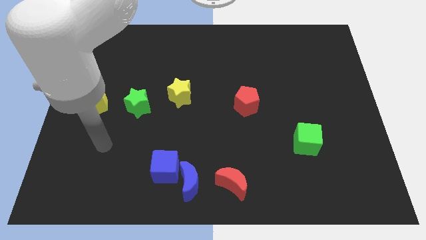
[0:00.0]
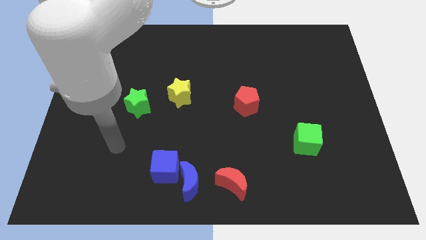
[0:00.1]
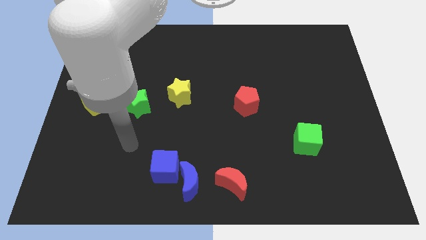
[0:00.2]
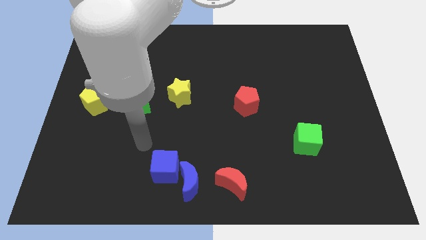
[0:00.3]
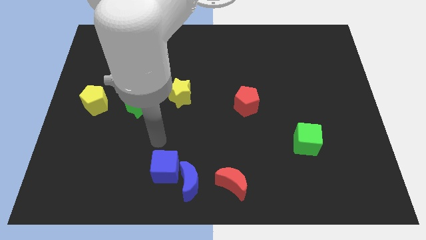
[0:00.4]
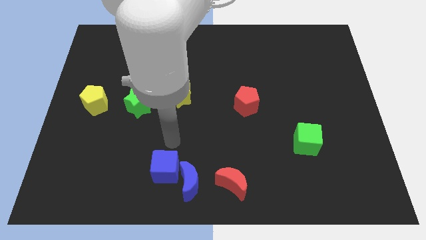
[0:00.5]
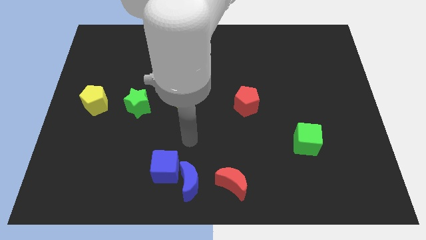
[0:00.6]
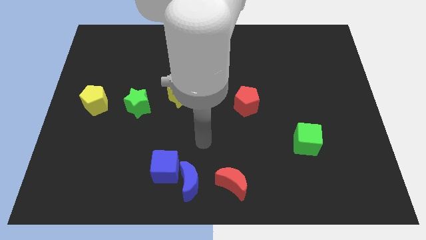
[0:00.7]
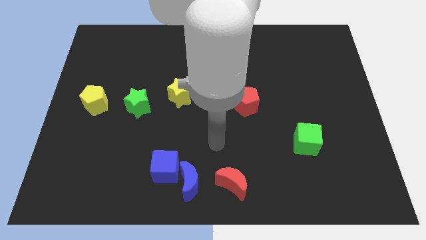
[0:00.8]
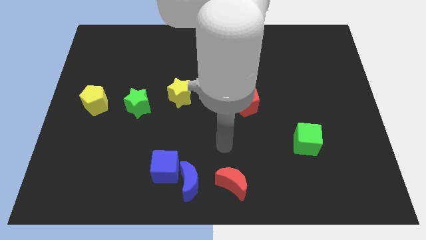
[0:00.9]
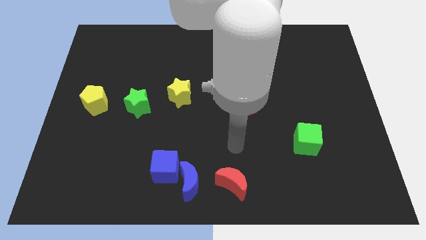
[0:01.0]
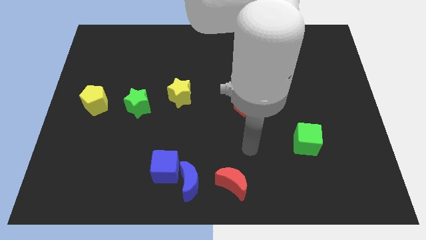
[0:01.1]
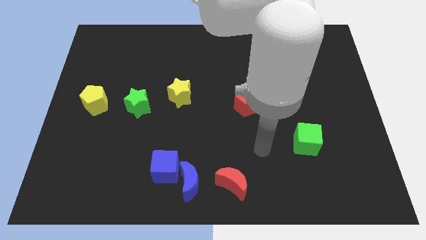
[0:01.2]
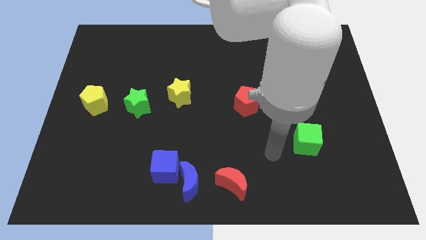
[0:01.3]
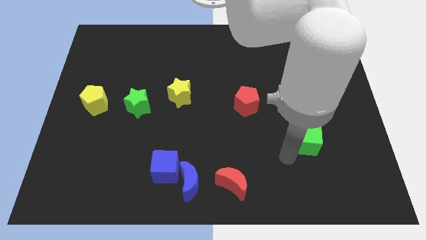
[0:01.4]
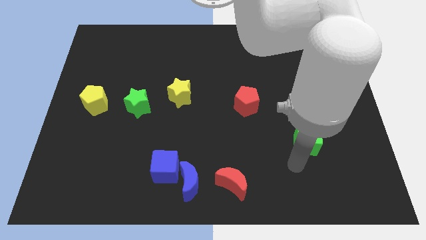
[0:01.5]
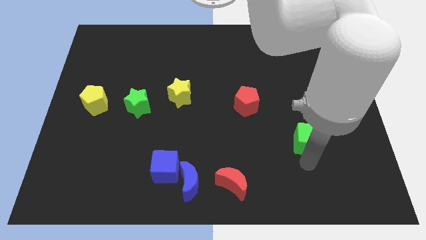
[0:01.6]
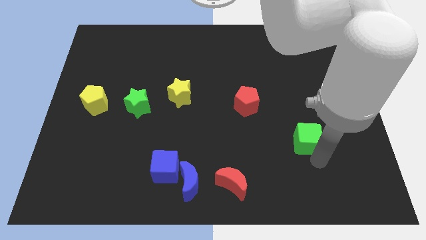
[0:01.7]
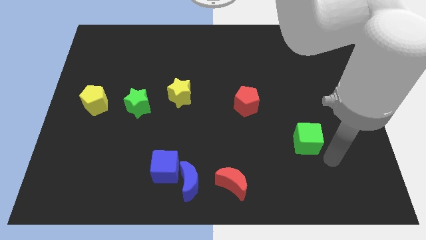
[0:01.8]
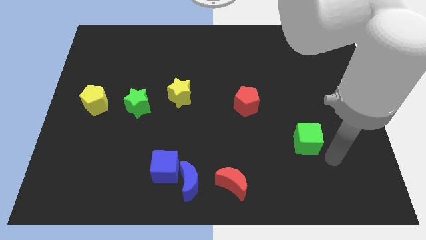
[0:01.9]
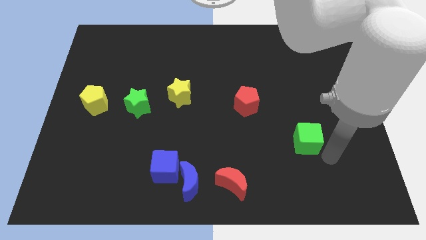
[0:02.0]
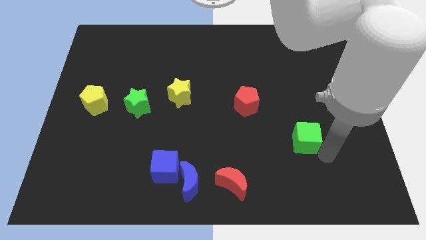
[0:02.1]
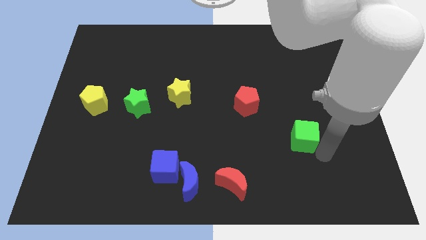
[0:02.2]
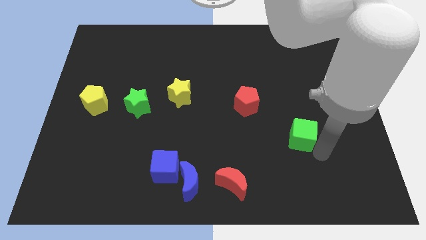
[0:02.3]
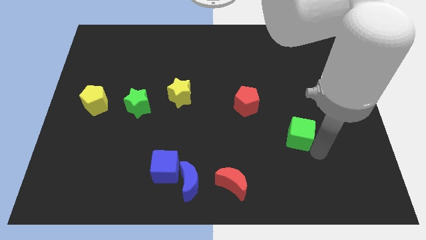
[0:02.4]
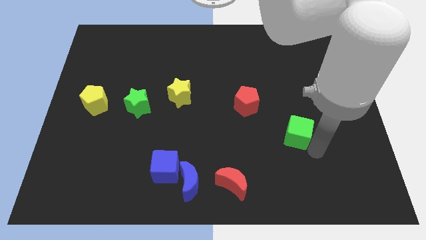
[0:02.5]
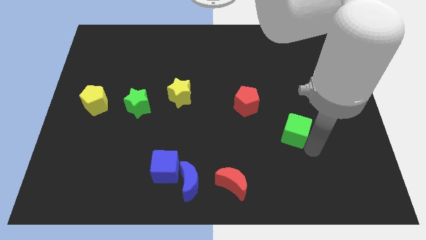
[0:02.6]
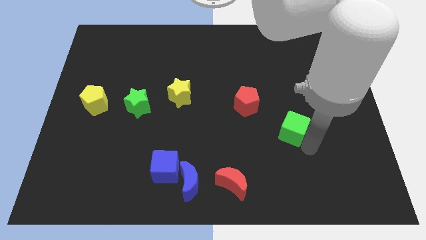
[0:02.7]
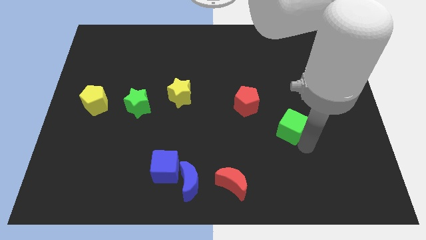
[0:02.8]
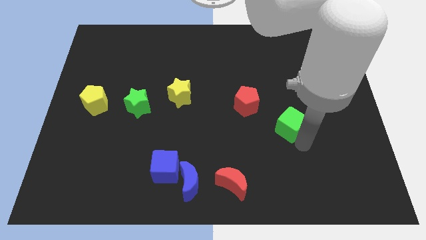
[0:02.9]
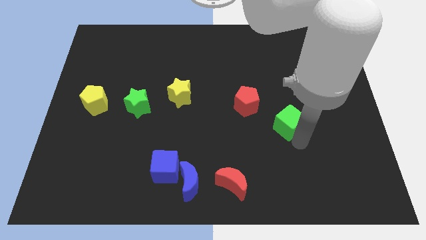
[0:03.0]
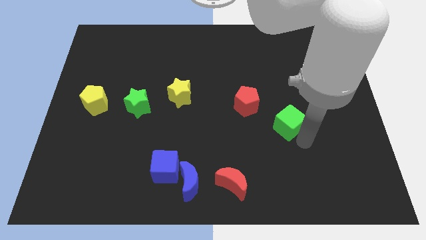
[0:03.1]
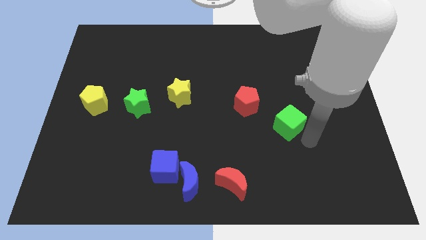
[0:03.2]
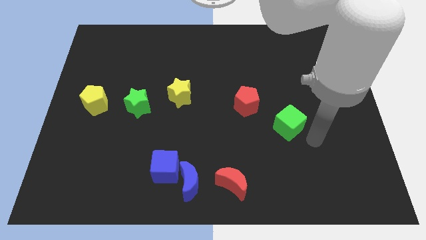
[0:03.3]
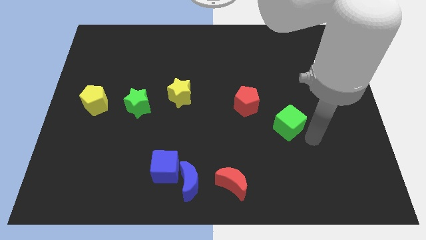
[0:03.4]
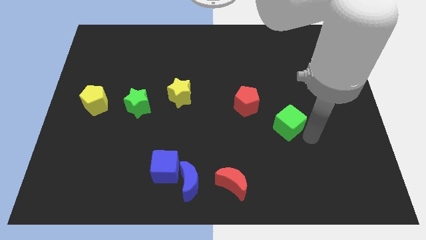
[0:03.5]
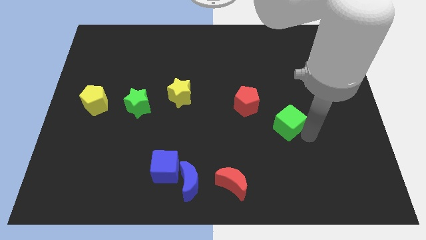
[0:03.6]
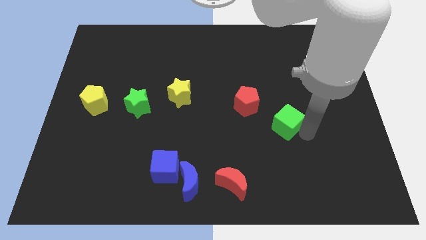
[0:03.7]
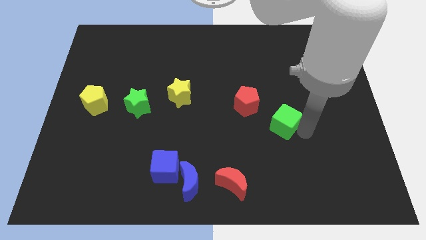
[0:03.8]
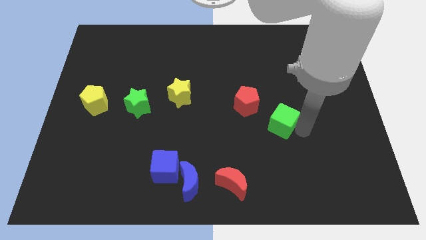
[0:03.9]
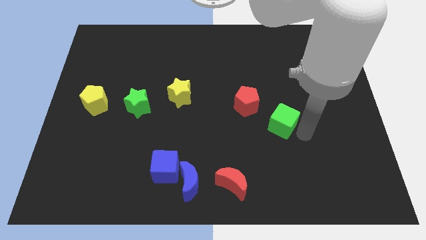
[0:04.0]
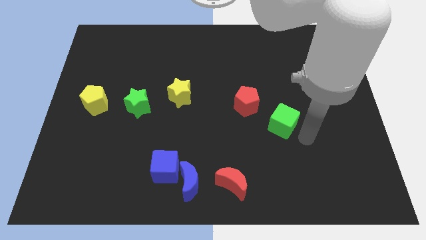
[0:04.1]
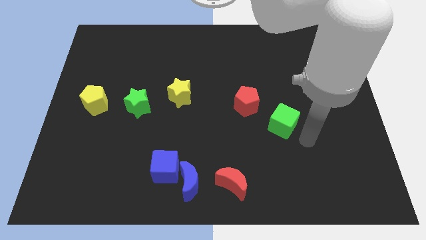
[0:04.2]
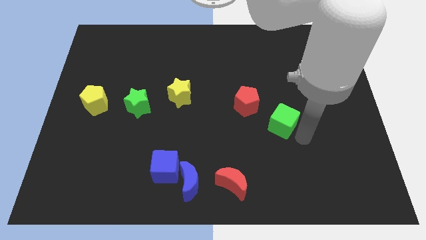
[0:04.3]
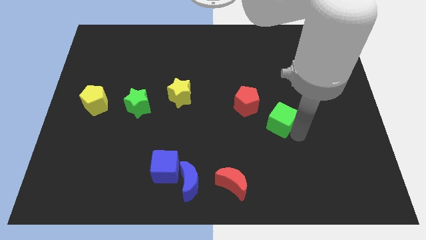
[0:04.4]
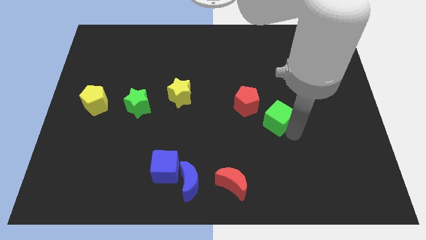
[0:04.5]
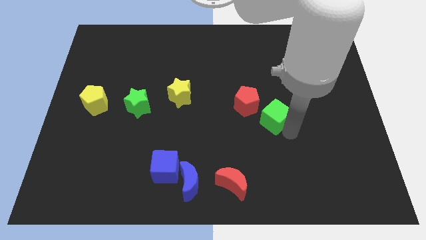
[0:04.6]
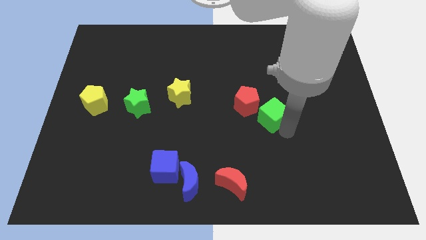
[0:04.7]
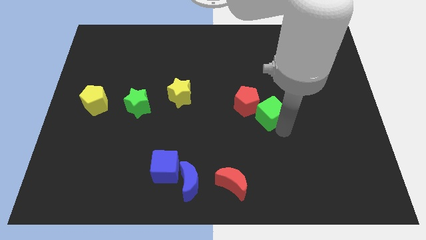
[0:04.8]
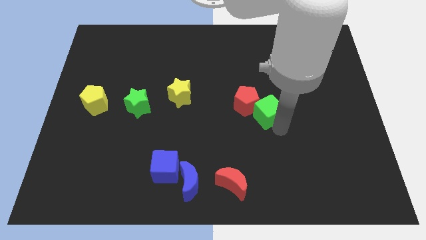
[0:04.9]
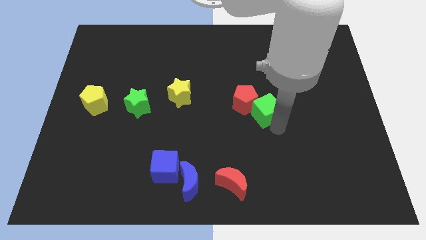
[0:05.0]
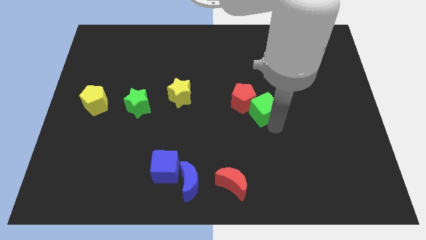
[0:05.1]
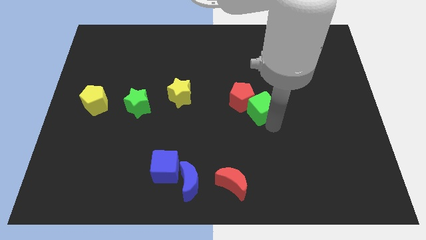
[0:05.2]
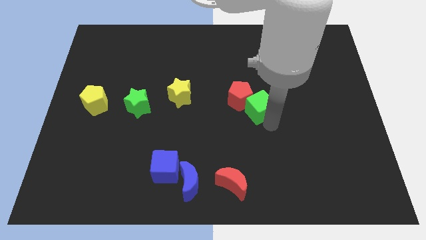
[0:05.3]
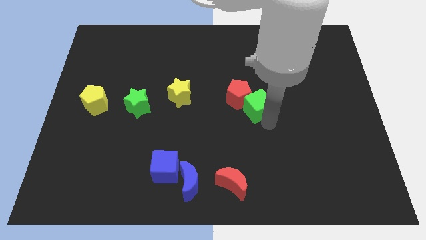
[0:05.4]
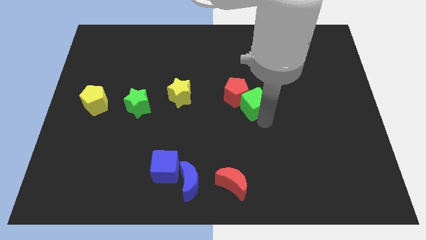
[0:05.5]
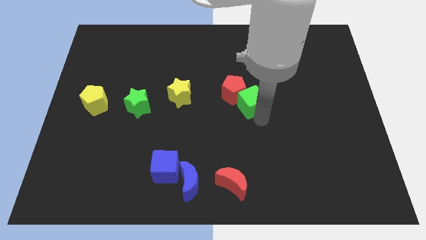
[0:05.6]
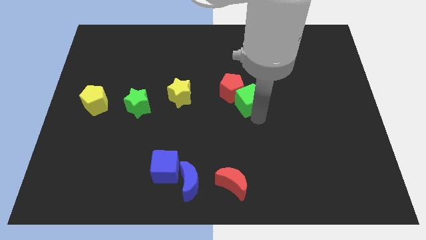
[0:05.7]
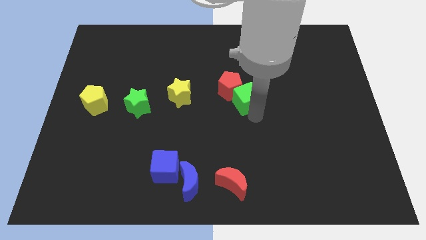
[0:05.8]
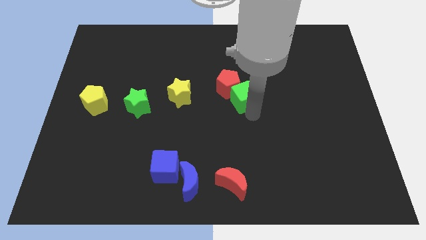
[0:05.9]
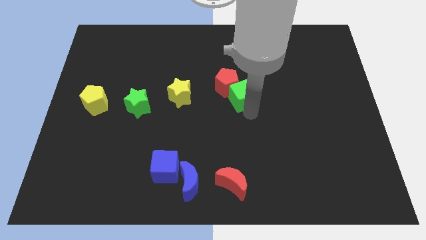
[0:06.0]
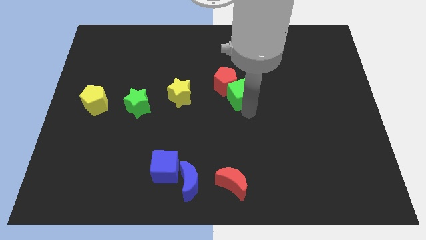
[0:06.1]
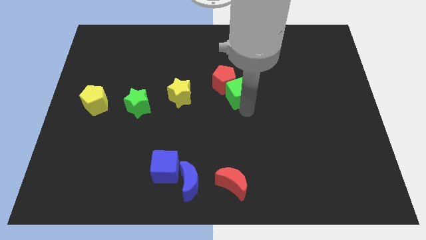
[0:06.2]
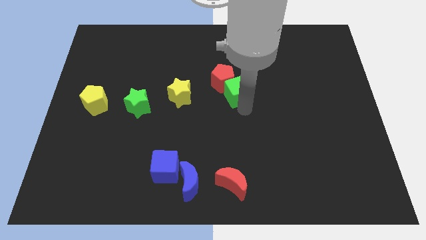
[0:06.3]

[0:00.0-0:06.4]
push the green cube upwards and left diagonally

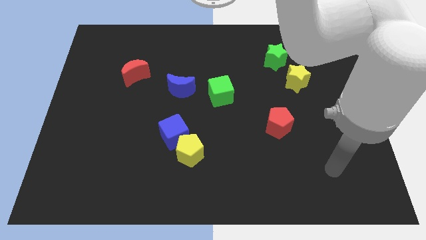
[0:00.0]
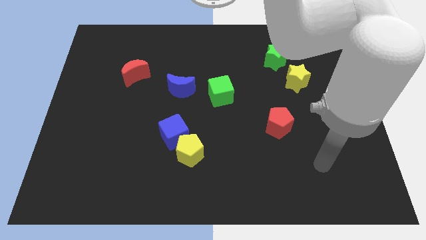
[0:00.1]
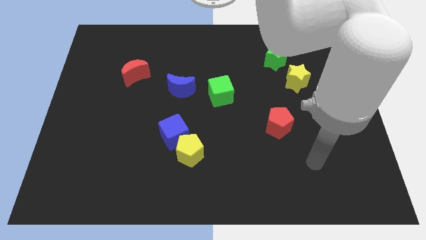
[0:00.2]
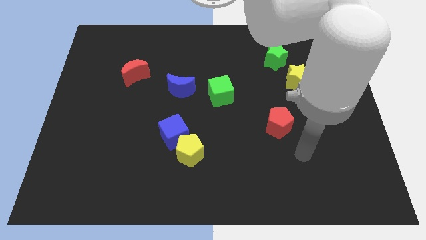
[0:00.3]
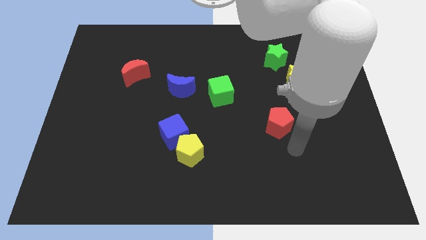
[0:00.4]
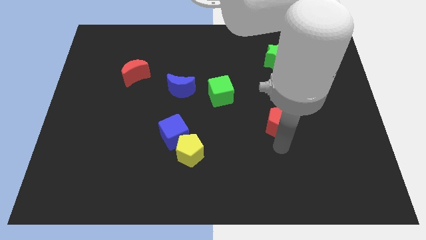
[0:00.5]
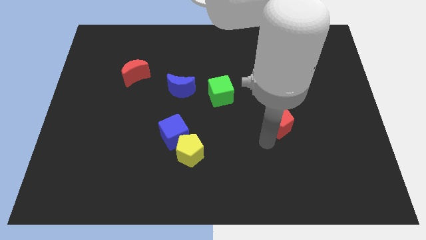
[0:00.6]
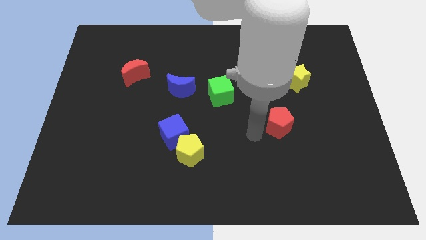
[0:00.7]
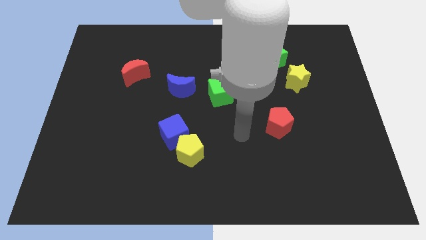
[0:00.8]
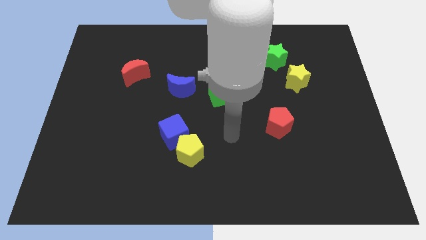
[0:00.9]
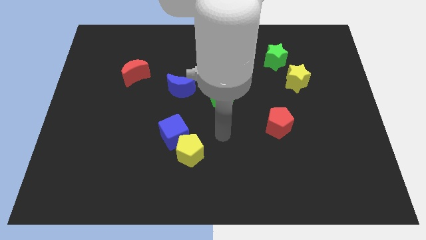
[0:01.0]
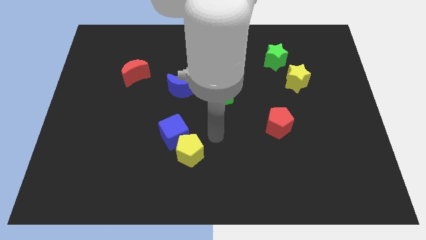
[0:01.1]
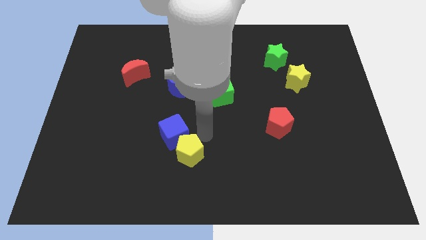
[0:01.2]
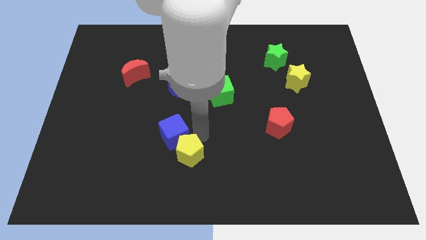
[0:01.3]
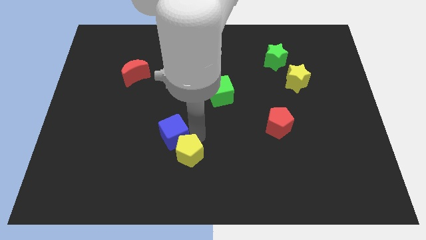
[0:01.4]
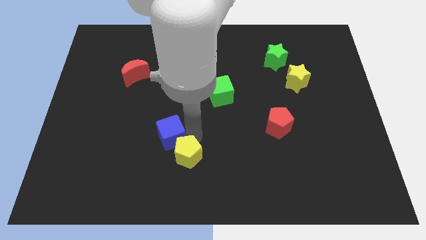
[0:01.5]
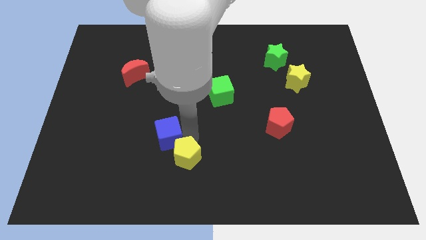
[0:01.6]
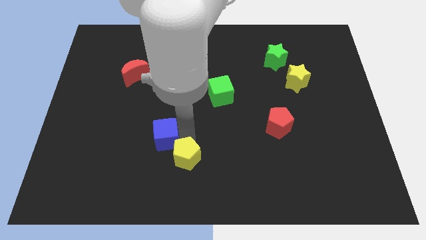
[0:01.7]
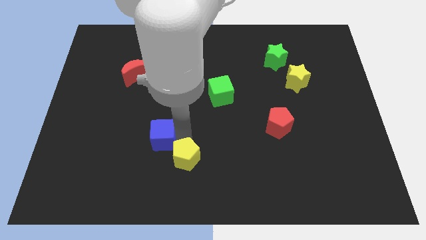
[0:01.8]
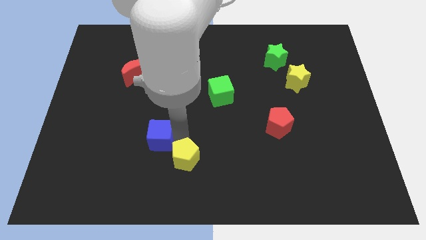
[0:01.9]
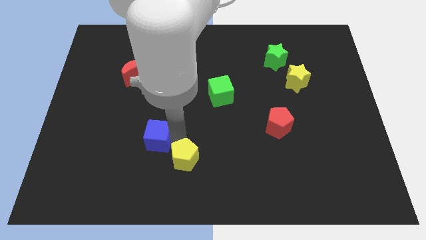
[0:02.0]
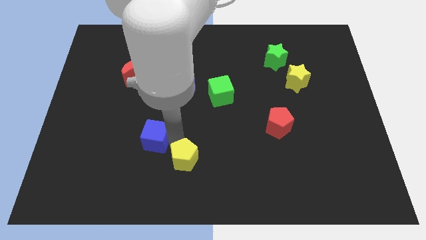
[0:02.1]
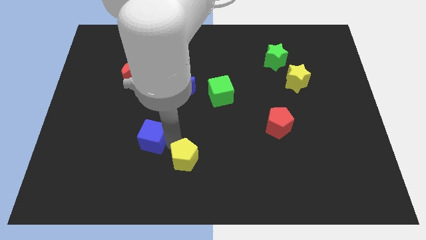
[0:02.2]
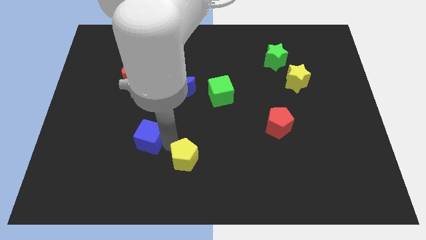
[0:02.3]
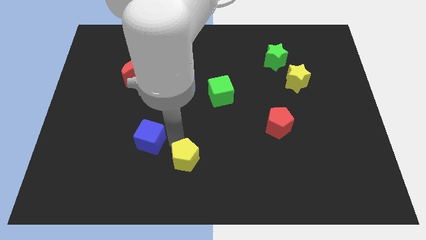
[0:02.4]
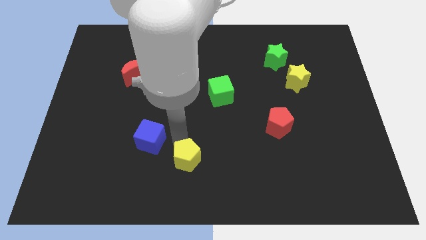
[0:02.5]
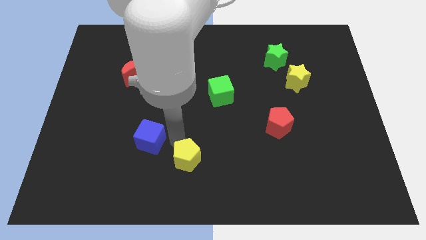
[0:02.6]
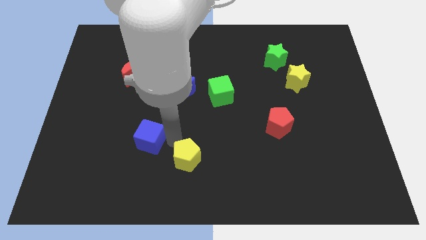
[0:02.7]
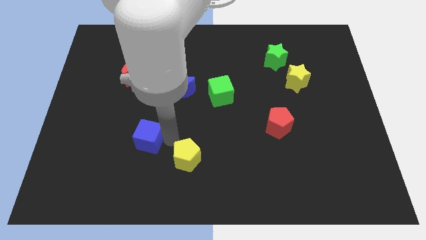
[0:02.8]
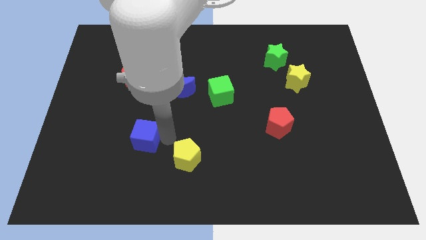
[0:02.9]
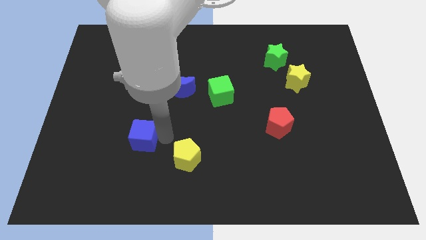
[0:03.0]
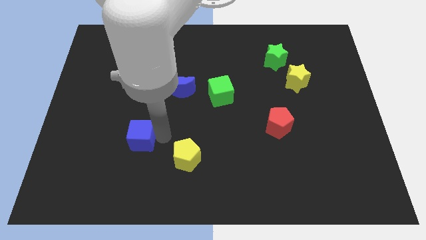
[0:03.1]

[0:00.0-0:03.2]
move the blue cube a bit left
